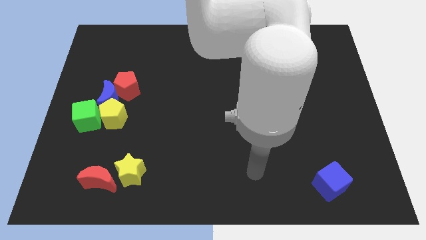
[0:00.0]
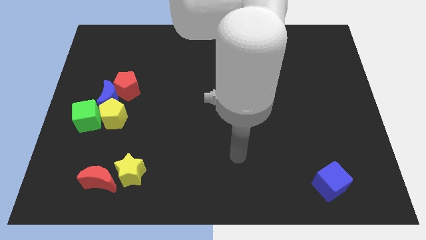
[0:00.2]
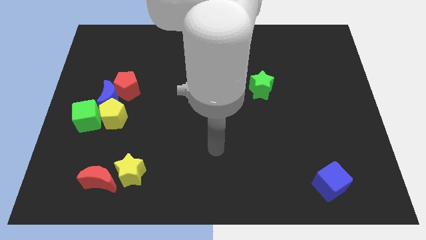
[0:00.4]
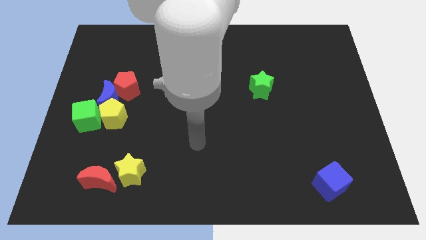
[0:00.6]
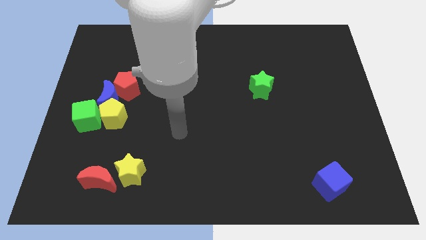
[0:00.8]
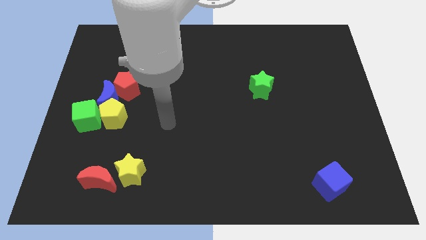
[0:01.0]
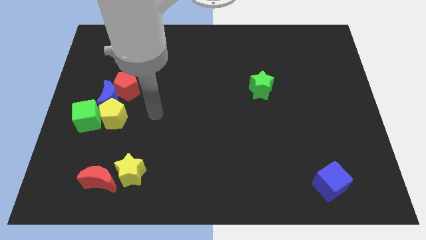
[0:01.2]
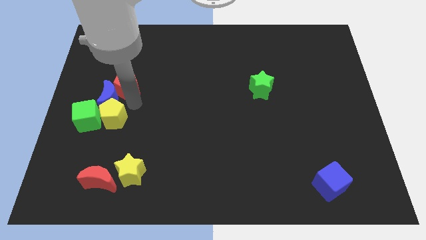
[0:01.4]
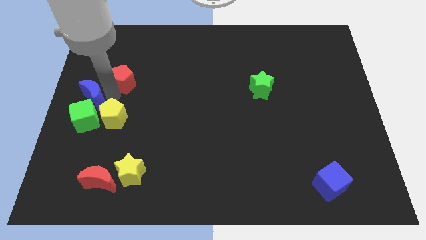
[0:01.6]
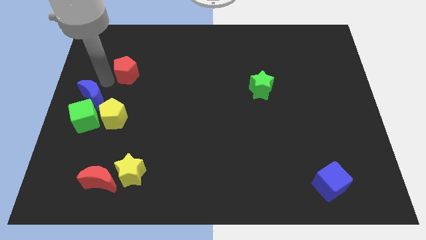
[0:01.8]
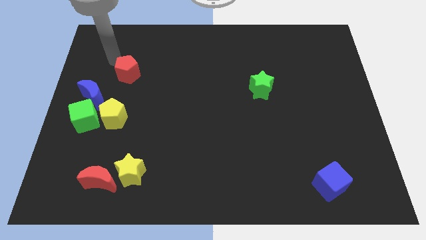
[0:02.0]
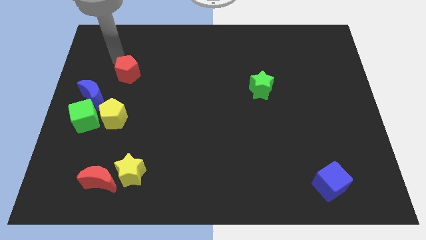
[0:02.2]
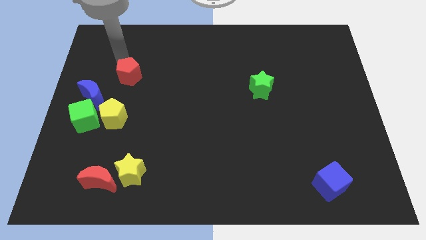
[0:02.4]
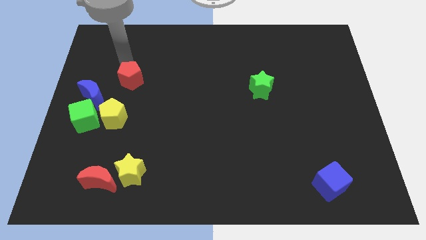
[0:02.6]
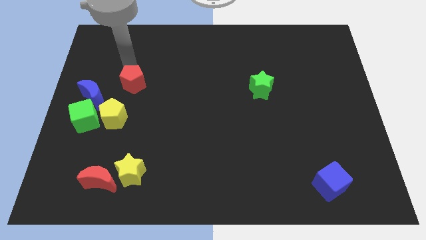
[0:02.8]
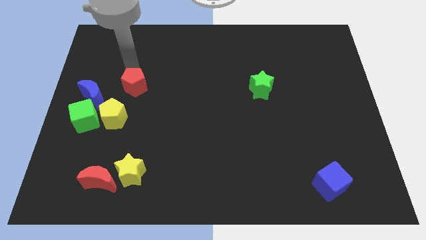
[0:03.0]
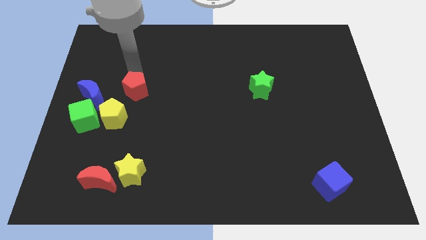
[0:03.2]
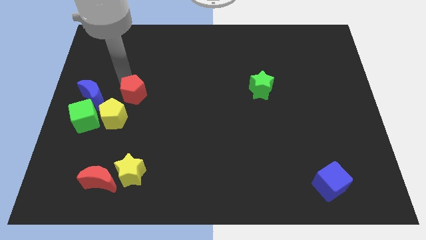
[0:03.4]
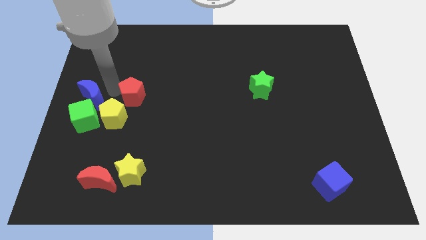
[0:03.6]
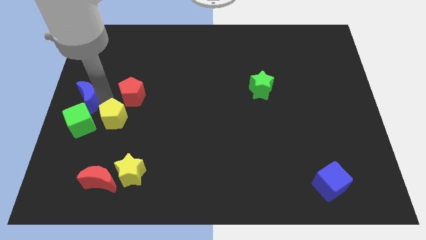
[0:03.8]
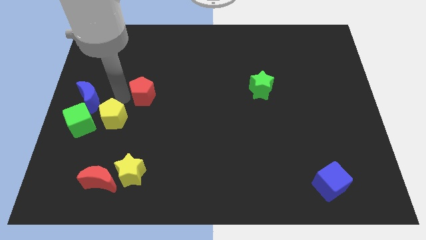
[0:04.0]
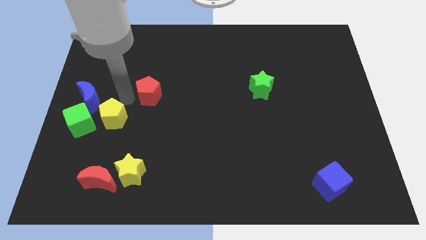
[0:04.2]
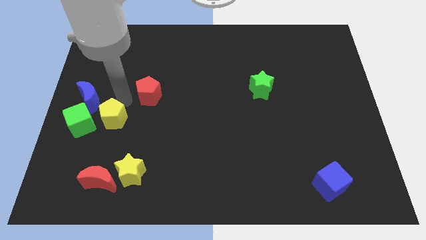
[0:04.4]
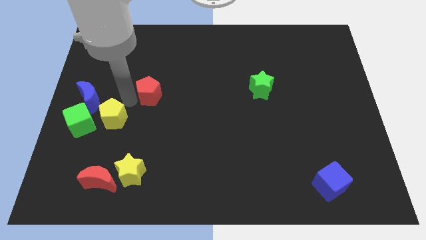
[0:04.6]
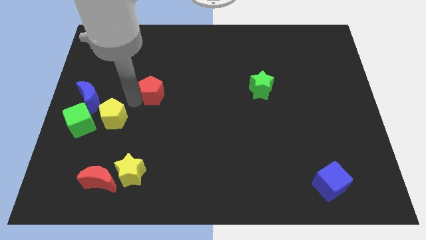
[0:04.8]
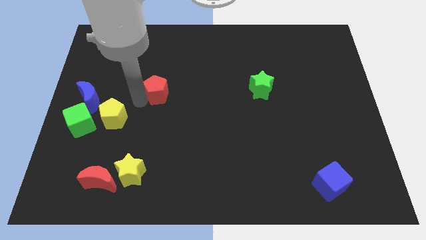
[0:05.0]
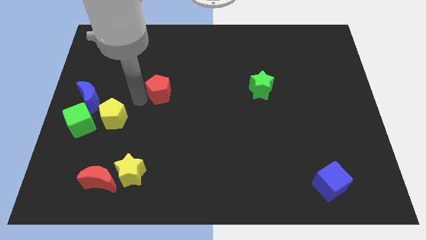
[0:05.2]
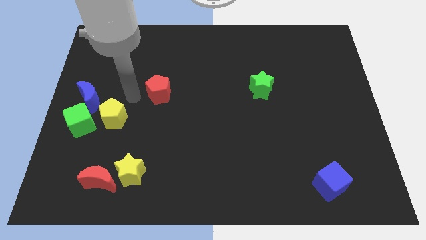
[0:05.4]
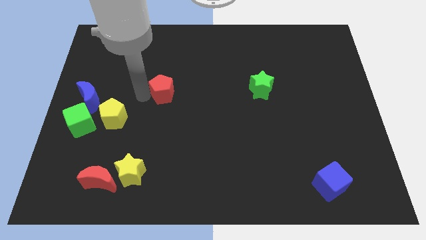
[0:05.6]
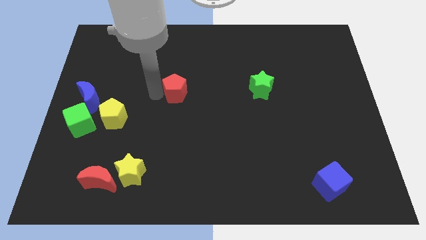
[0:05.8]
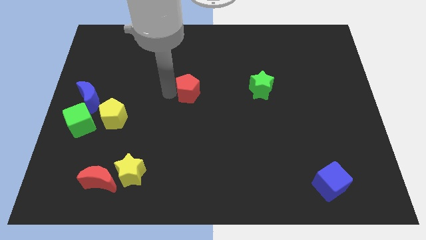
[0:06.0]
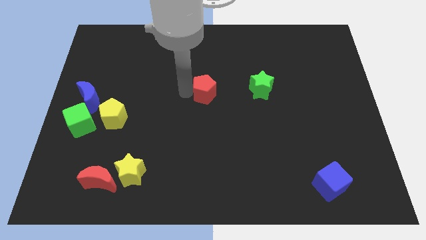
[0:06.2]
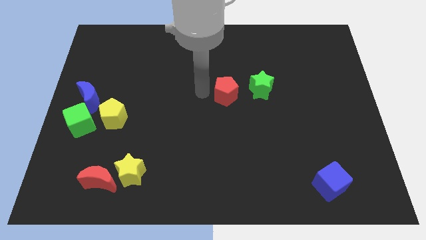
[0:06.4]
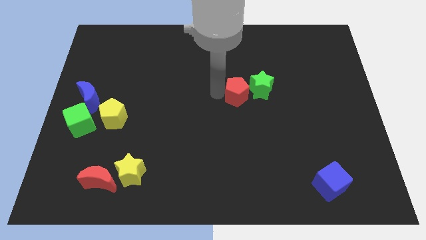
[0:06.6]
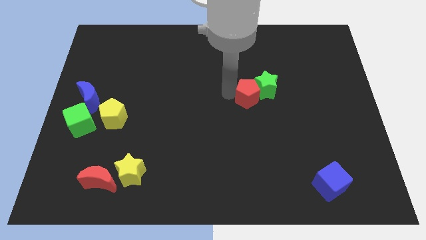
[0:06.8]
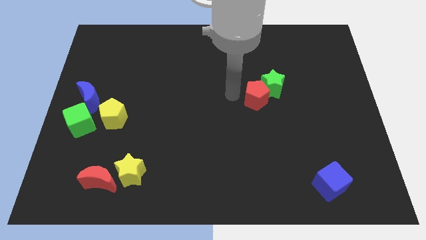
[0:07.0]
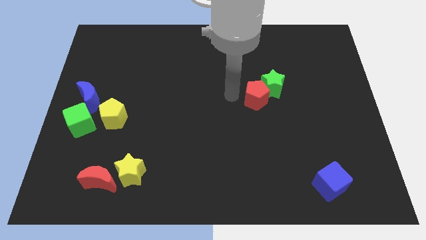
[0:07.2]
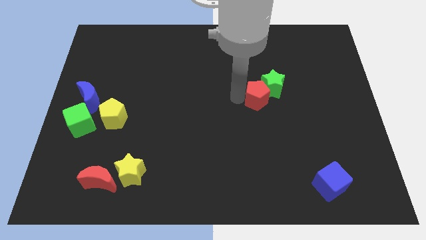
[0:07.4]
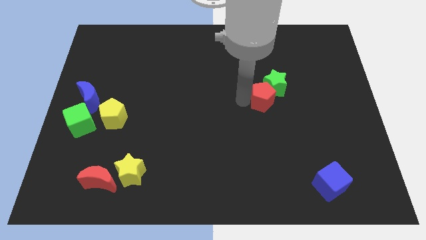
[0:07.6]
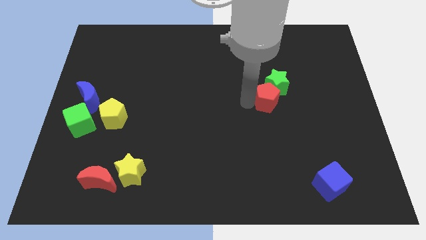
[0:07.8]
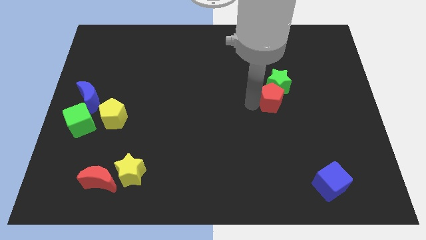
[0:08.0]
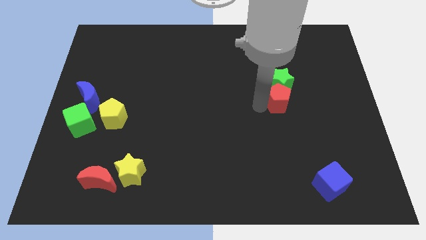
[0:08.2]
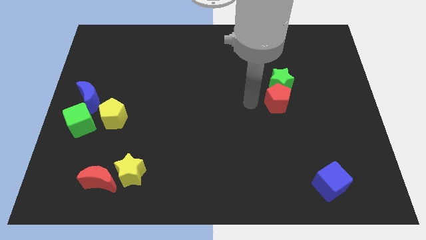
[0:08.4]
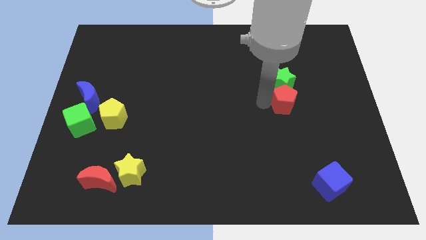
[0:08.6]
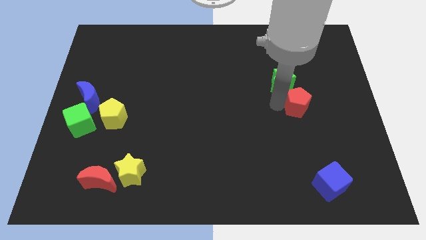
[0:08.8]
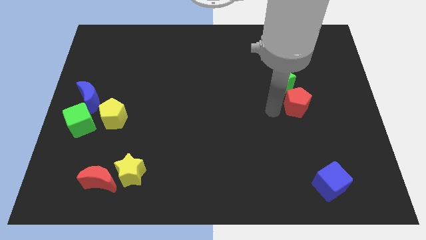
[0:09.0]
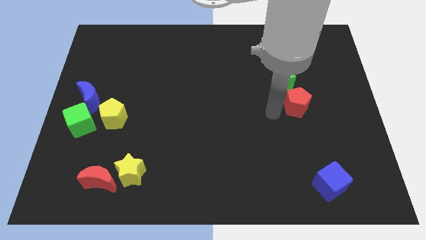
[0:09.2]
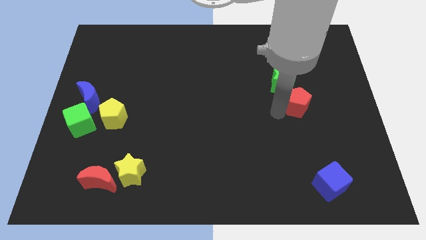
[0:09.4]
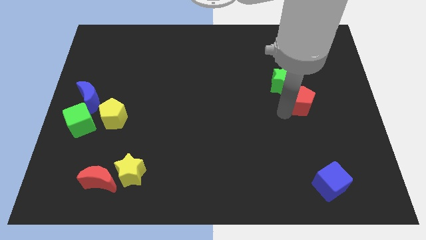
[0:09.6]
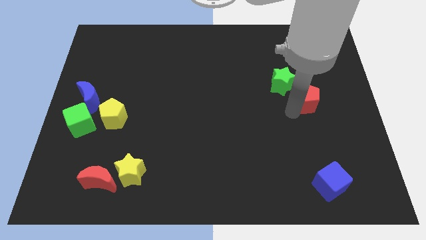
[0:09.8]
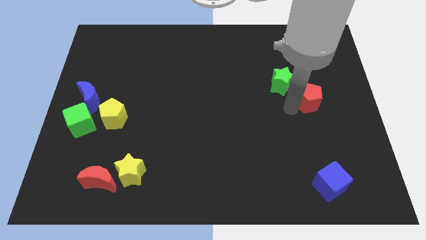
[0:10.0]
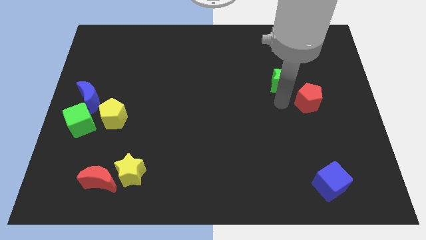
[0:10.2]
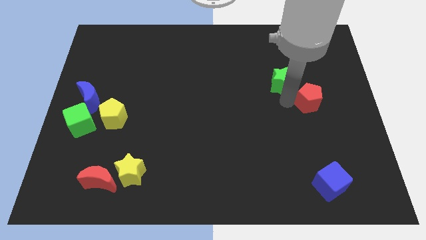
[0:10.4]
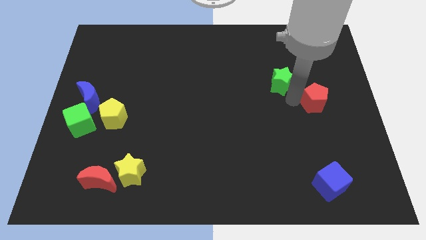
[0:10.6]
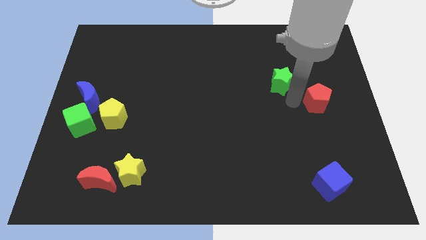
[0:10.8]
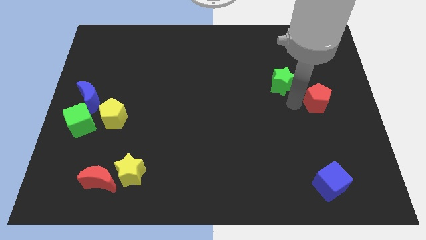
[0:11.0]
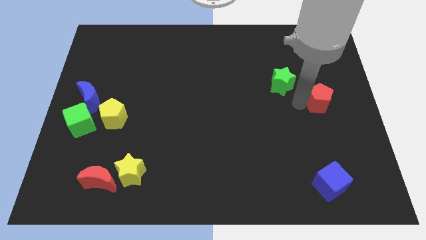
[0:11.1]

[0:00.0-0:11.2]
move the red pentagon to the center right

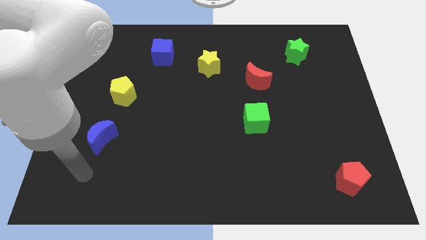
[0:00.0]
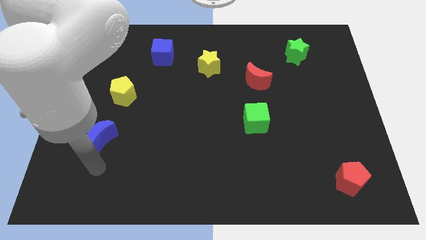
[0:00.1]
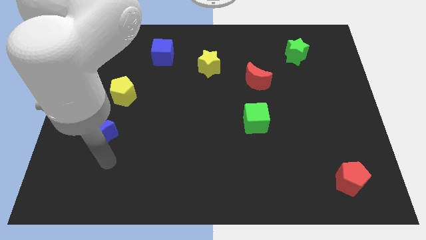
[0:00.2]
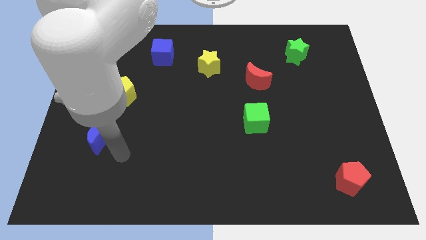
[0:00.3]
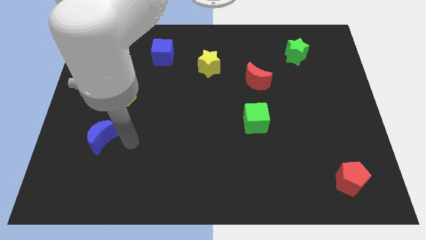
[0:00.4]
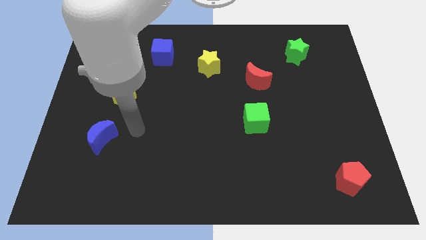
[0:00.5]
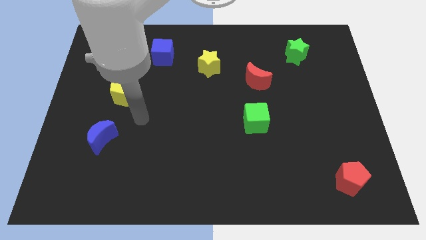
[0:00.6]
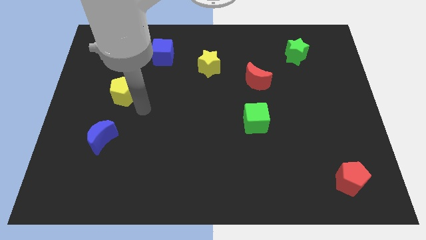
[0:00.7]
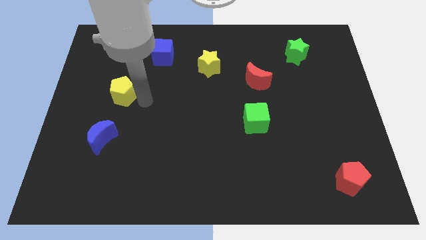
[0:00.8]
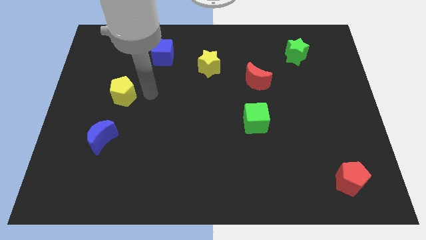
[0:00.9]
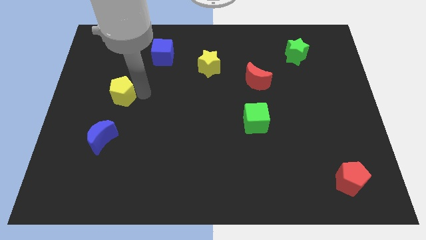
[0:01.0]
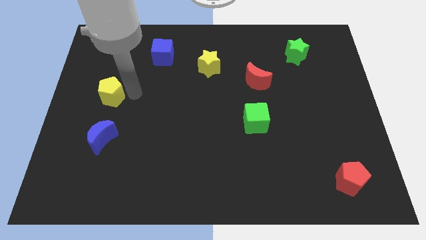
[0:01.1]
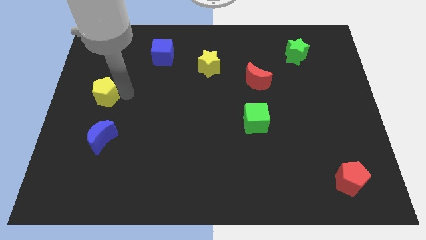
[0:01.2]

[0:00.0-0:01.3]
slide the yellow pentagon to the left side of the board

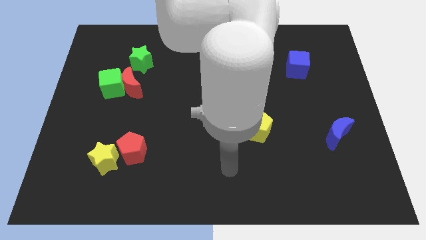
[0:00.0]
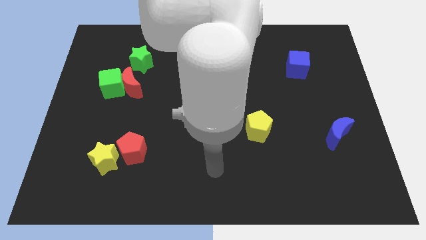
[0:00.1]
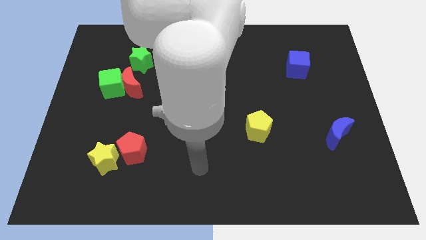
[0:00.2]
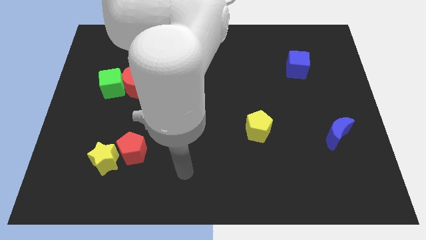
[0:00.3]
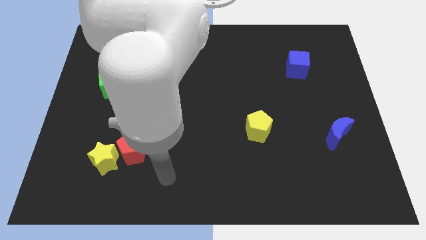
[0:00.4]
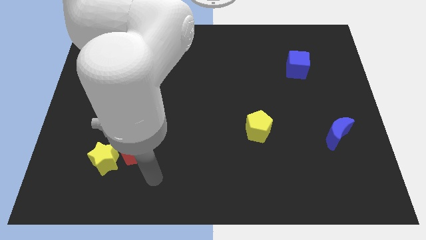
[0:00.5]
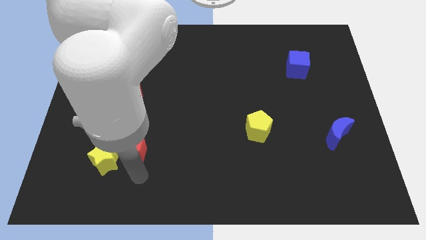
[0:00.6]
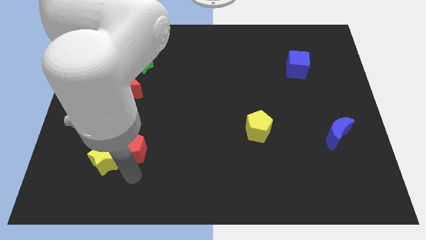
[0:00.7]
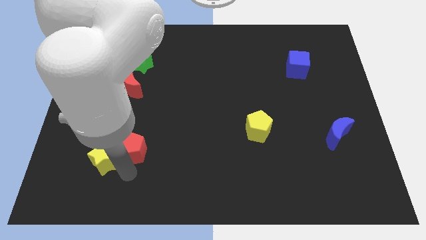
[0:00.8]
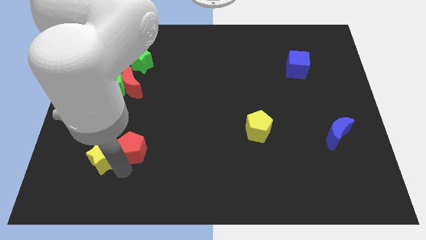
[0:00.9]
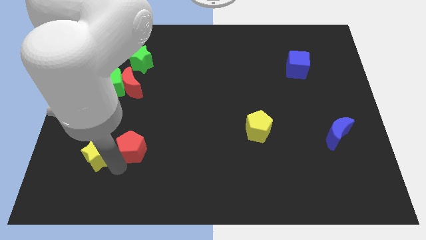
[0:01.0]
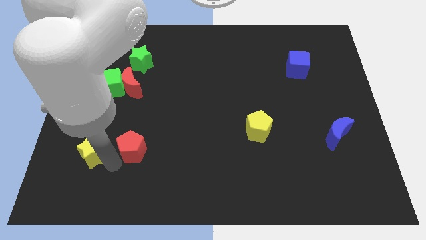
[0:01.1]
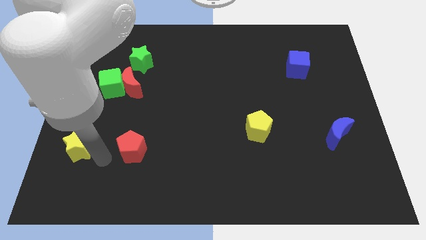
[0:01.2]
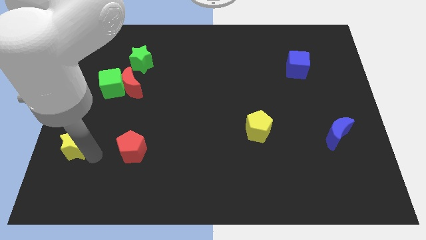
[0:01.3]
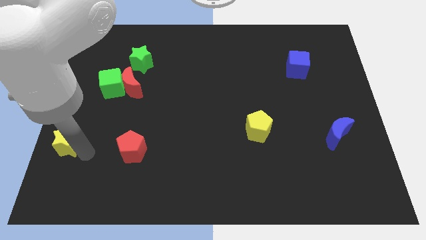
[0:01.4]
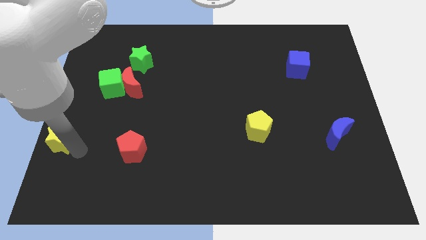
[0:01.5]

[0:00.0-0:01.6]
slide the yellow star to the left side of the board
